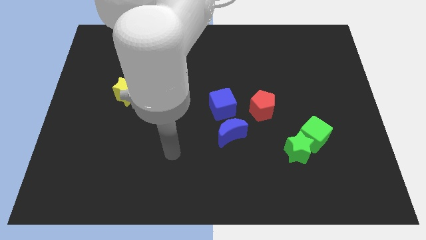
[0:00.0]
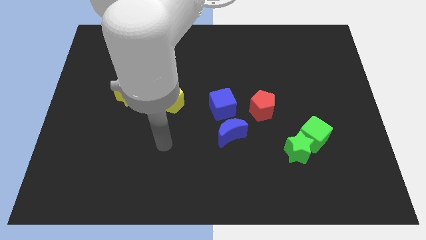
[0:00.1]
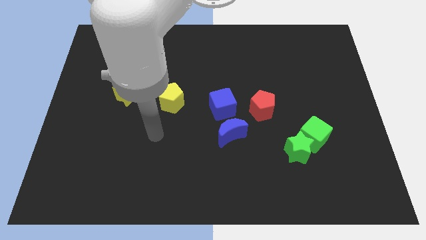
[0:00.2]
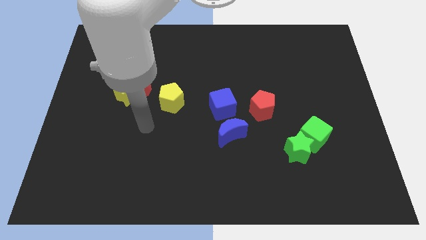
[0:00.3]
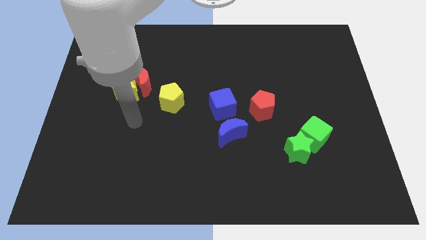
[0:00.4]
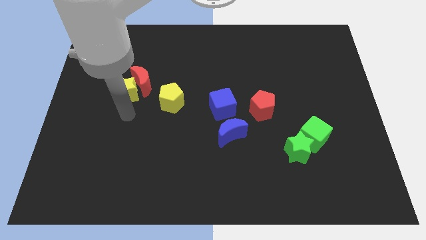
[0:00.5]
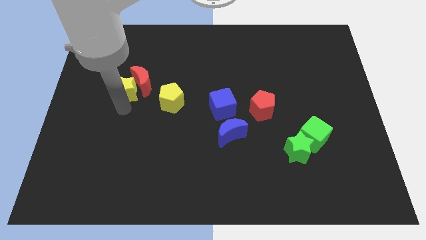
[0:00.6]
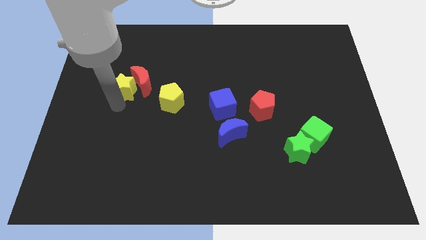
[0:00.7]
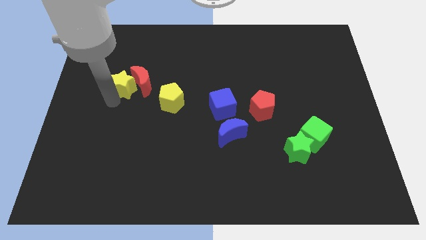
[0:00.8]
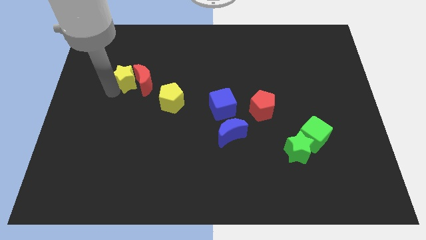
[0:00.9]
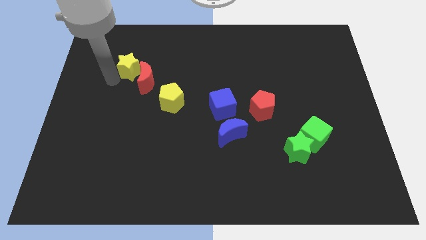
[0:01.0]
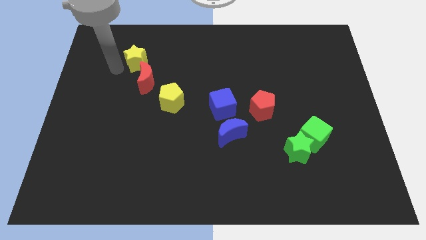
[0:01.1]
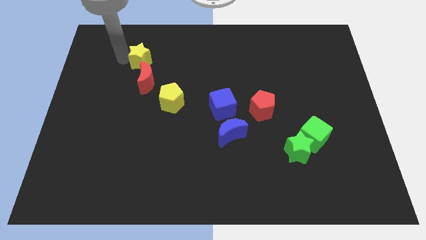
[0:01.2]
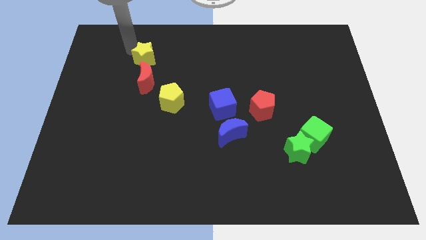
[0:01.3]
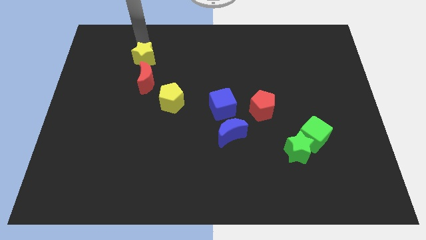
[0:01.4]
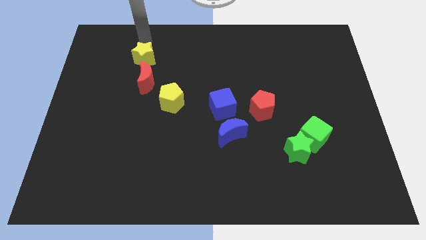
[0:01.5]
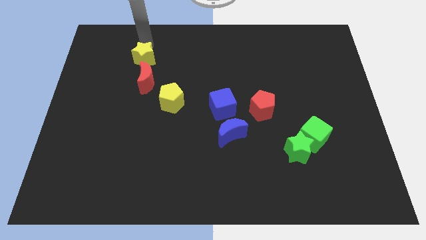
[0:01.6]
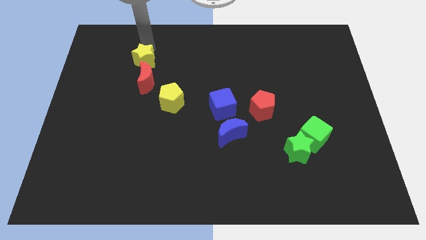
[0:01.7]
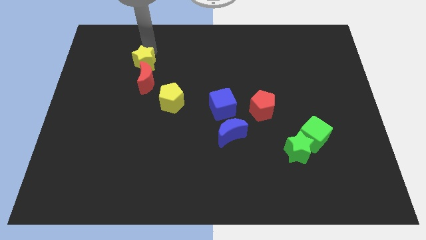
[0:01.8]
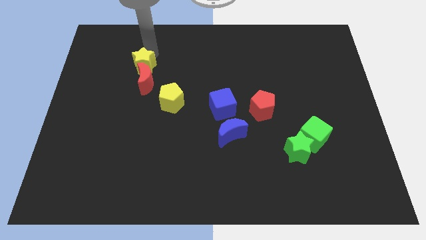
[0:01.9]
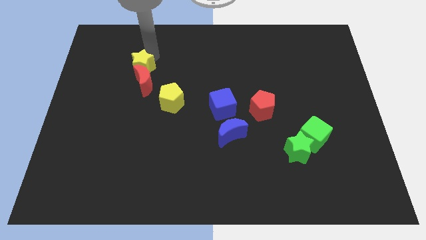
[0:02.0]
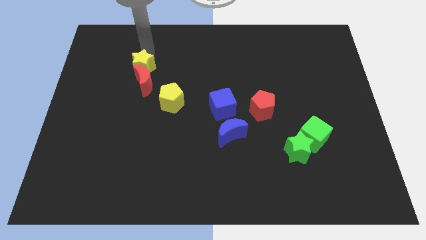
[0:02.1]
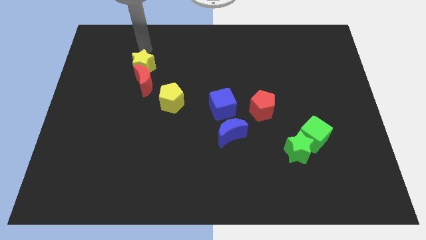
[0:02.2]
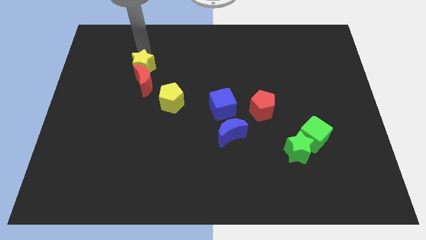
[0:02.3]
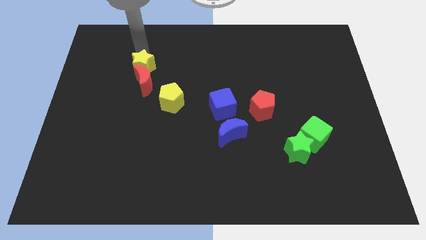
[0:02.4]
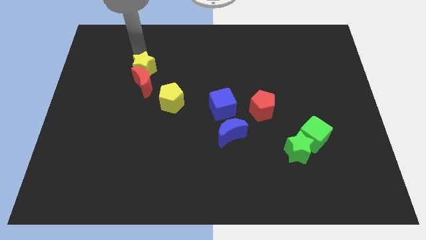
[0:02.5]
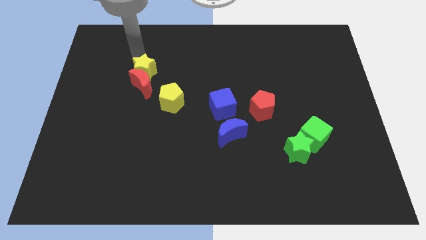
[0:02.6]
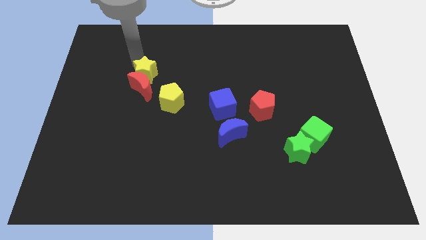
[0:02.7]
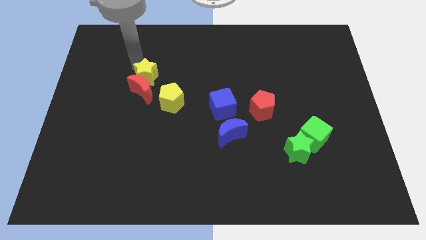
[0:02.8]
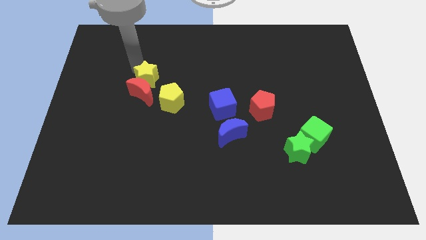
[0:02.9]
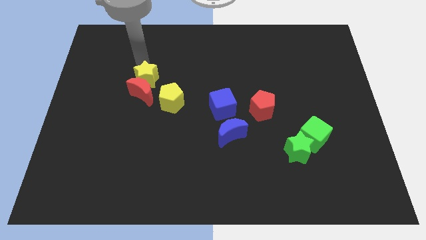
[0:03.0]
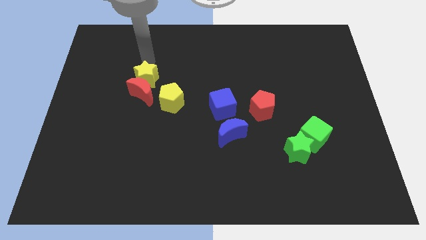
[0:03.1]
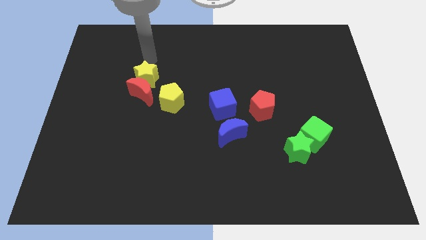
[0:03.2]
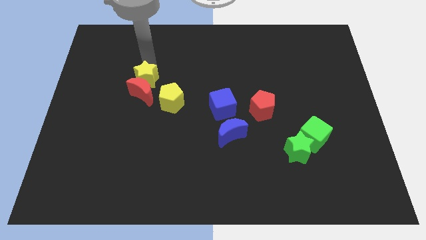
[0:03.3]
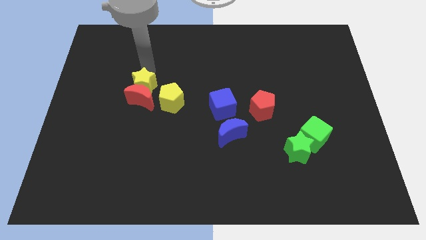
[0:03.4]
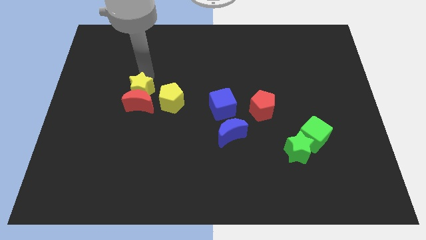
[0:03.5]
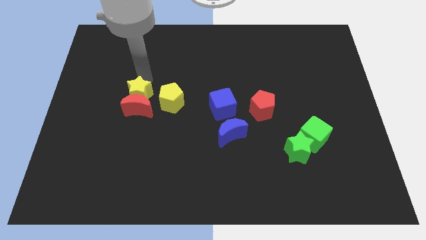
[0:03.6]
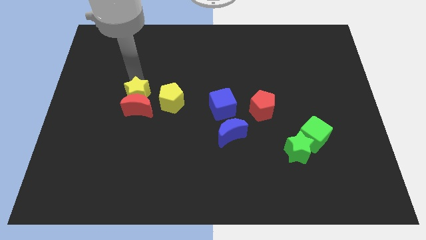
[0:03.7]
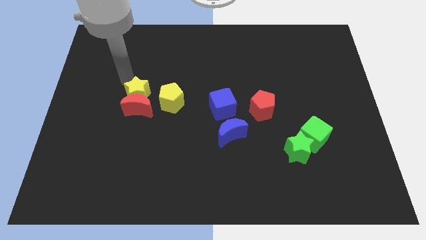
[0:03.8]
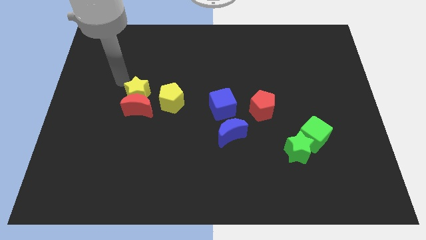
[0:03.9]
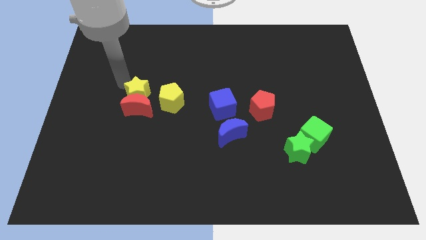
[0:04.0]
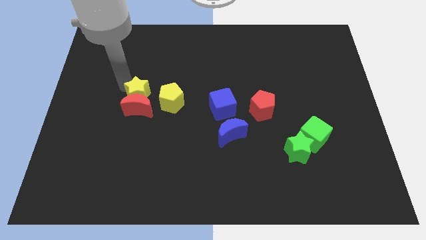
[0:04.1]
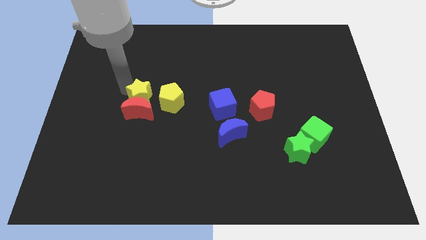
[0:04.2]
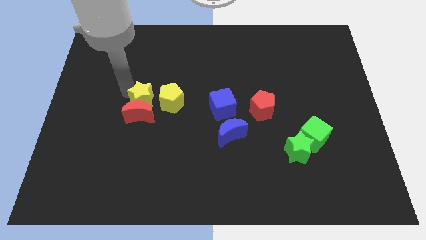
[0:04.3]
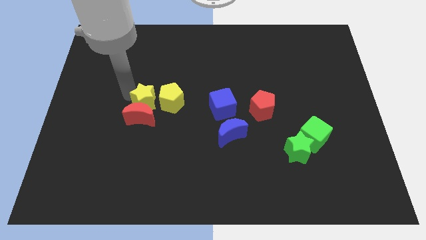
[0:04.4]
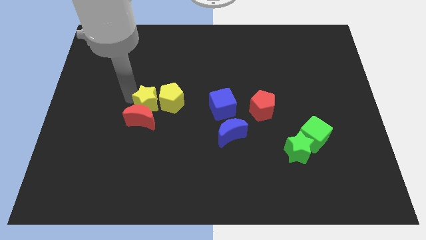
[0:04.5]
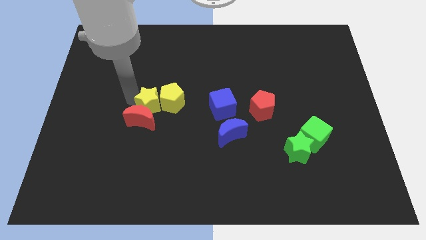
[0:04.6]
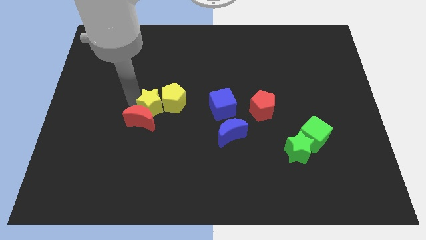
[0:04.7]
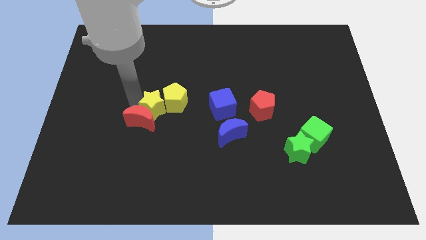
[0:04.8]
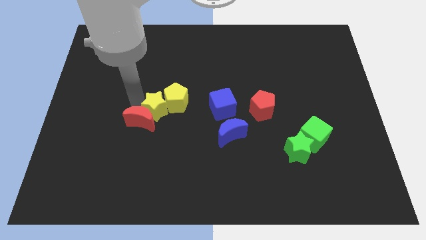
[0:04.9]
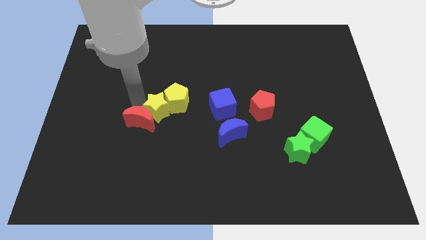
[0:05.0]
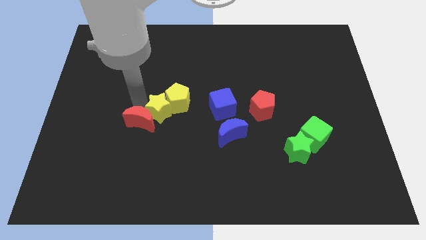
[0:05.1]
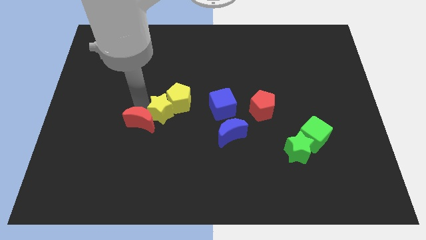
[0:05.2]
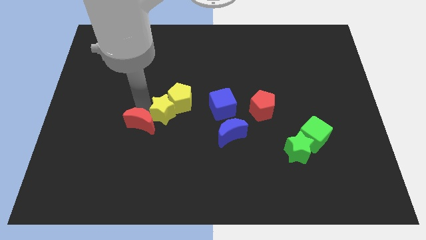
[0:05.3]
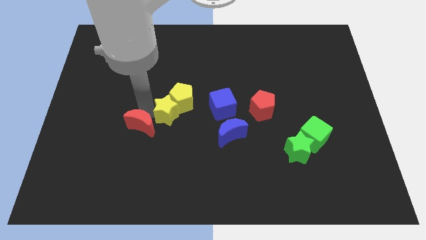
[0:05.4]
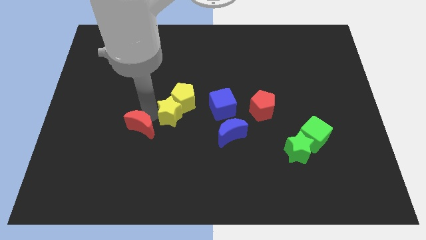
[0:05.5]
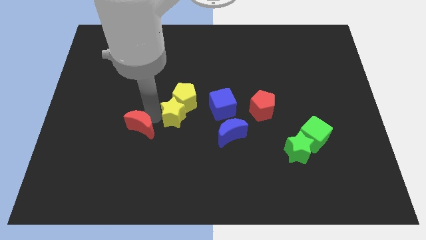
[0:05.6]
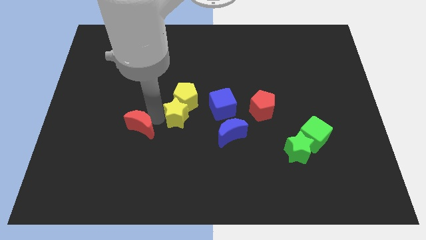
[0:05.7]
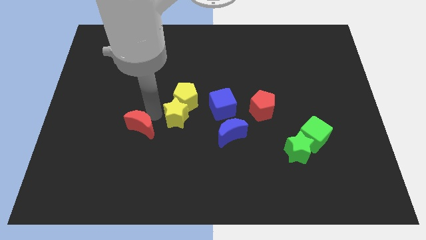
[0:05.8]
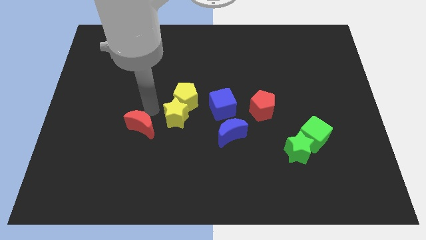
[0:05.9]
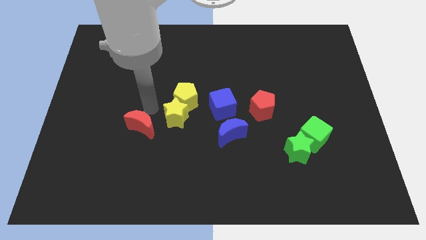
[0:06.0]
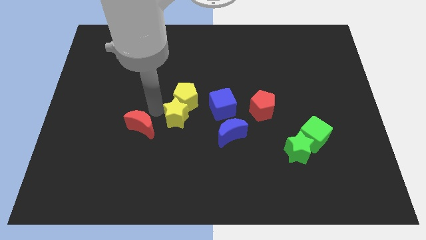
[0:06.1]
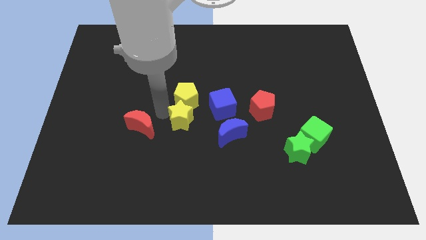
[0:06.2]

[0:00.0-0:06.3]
slide the yellow star to the bottom left of the blue cube

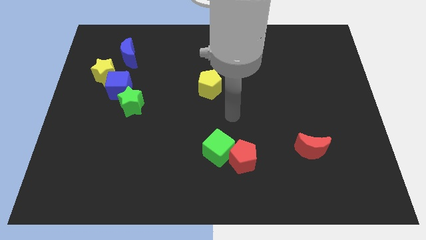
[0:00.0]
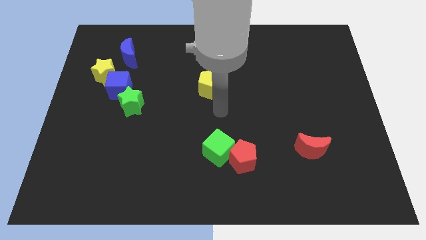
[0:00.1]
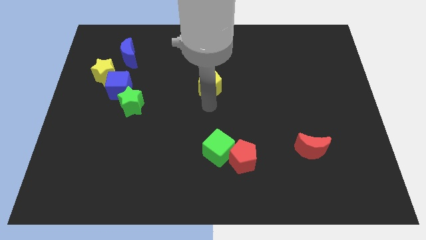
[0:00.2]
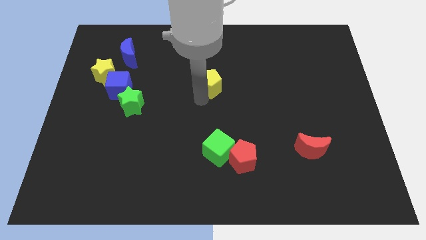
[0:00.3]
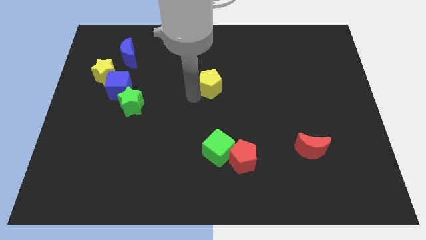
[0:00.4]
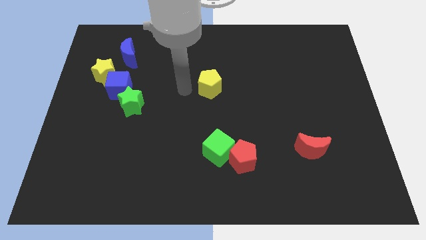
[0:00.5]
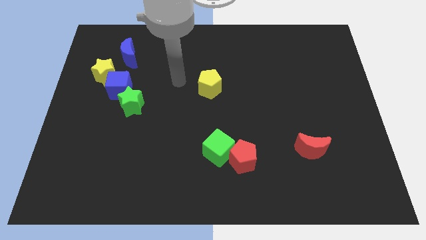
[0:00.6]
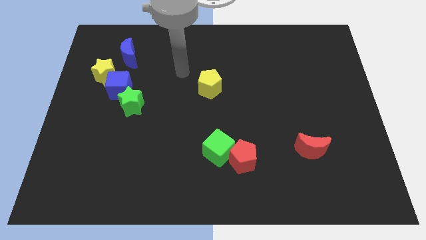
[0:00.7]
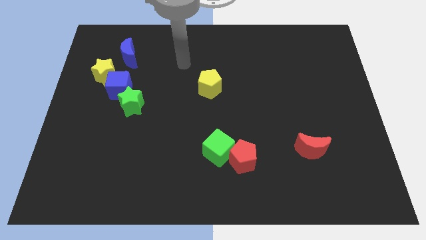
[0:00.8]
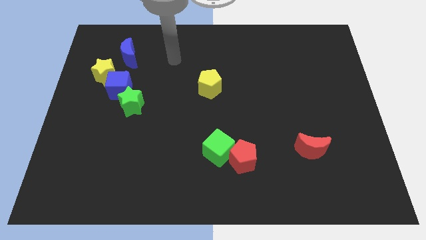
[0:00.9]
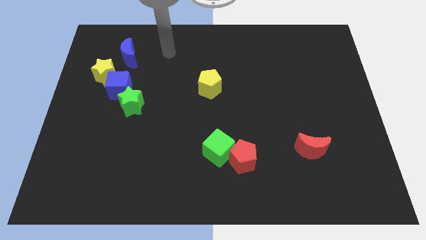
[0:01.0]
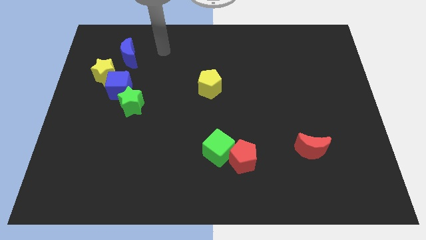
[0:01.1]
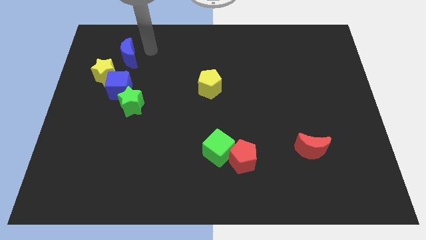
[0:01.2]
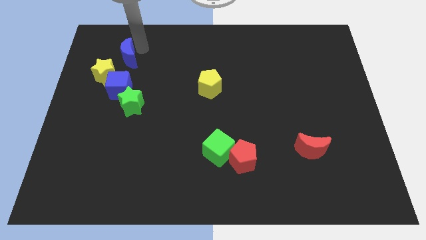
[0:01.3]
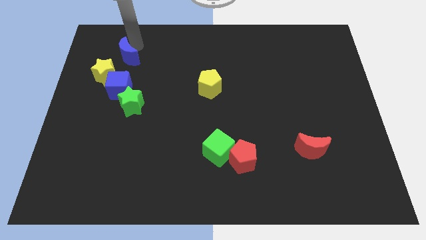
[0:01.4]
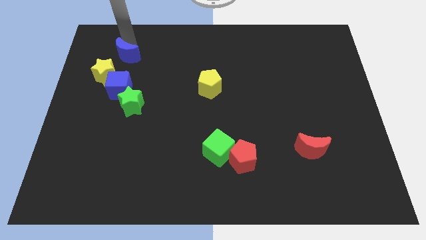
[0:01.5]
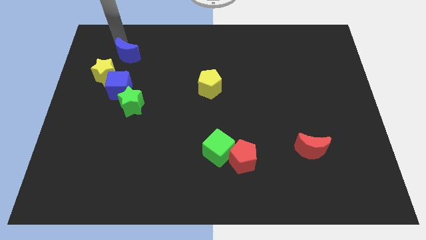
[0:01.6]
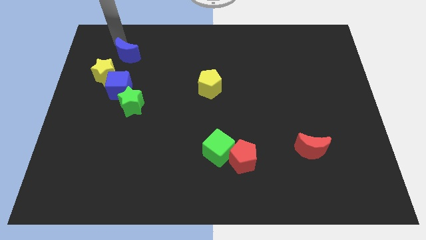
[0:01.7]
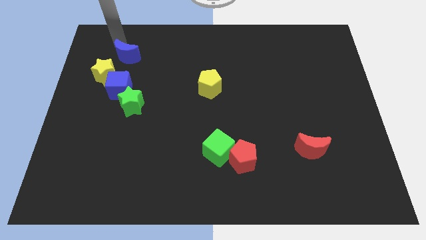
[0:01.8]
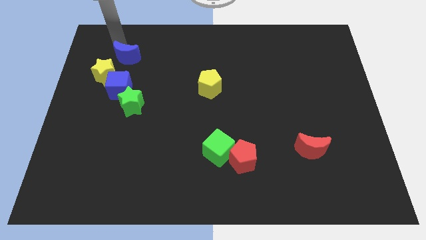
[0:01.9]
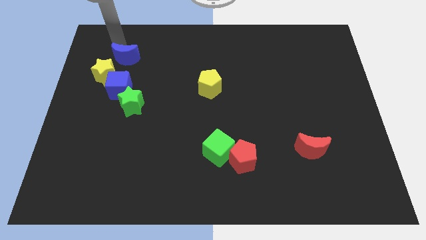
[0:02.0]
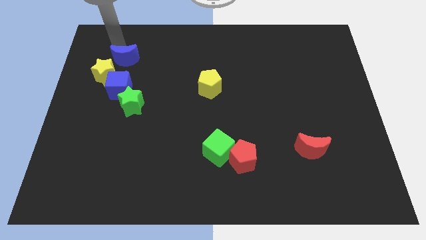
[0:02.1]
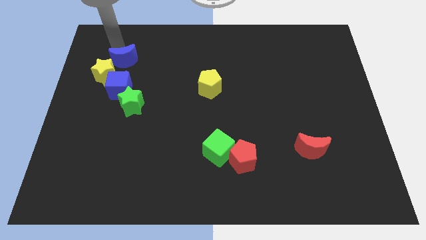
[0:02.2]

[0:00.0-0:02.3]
put the blue moon to the top side of the green star
